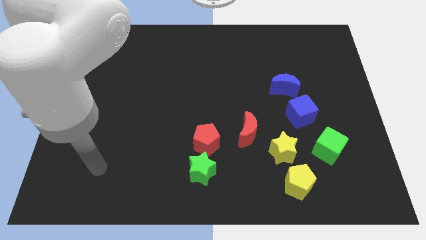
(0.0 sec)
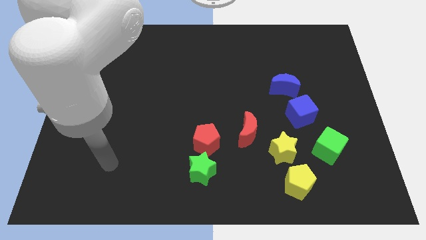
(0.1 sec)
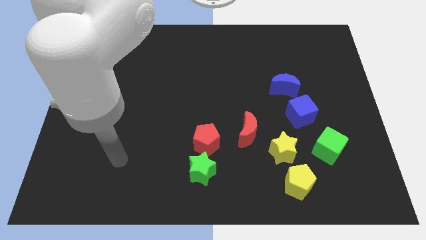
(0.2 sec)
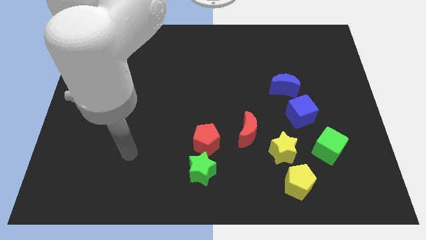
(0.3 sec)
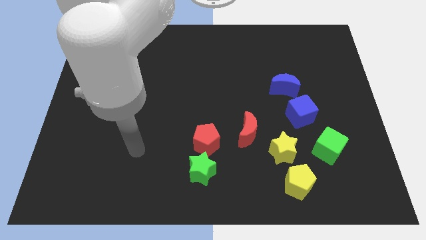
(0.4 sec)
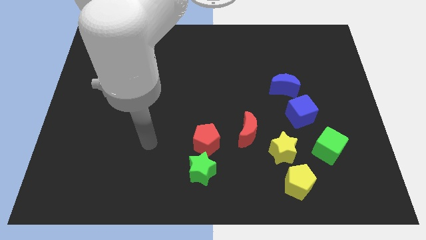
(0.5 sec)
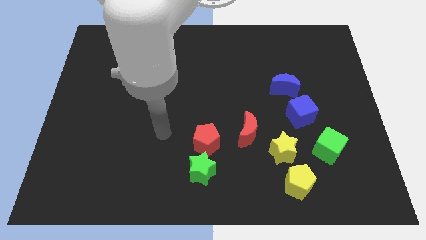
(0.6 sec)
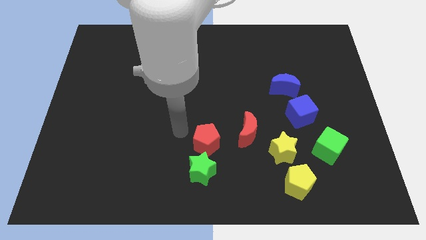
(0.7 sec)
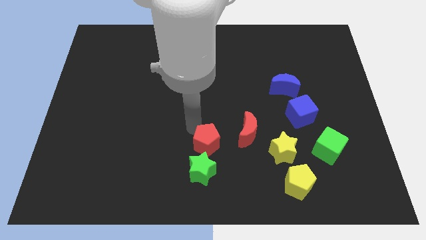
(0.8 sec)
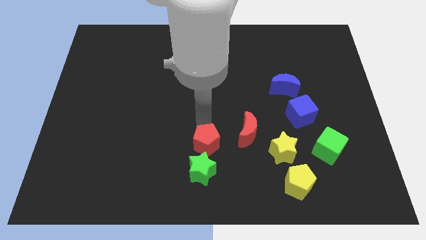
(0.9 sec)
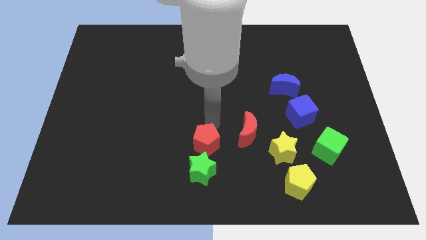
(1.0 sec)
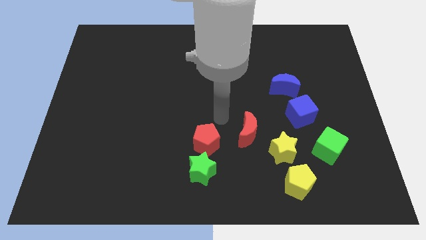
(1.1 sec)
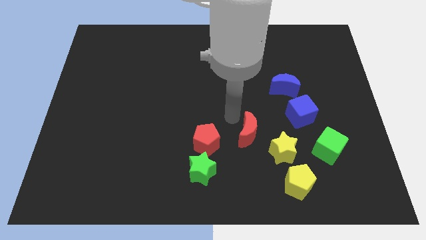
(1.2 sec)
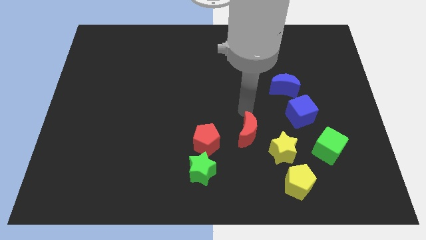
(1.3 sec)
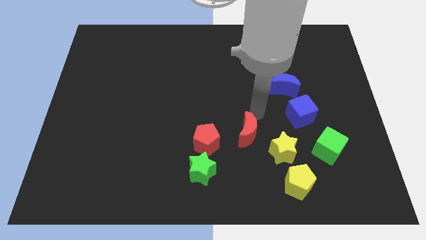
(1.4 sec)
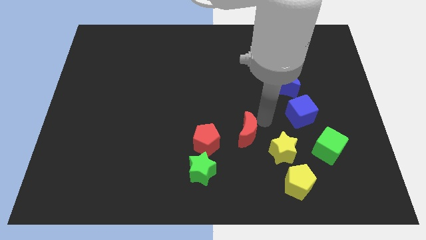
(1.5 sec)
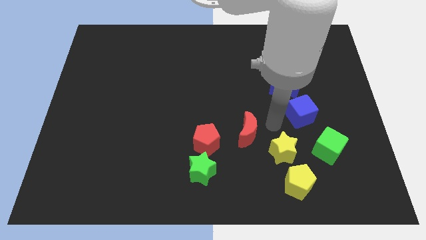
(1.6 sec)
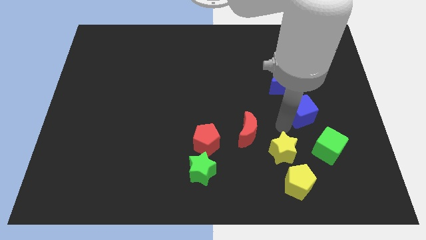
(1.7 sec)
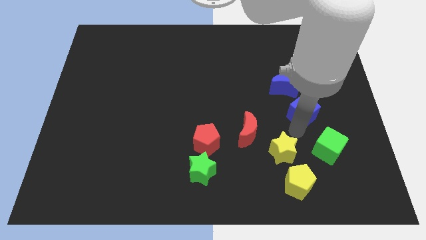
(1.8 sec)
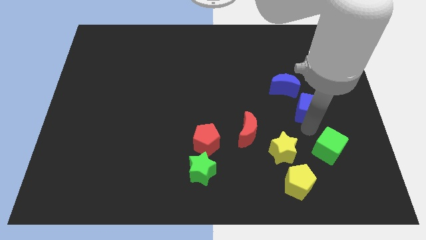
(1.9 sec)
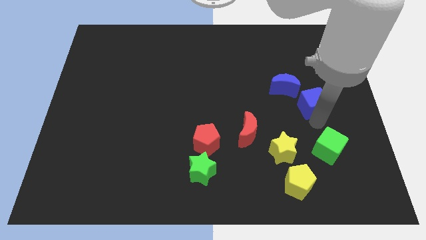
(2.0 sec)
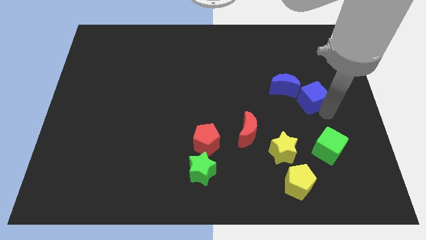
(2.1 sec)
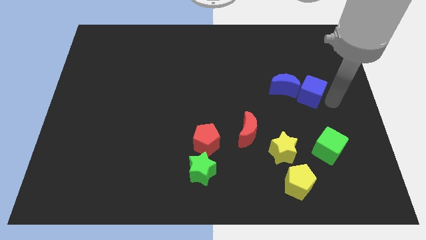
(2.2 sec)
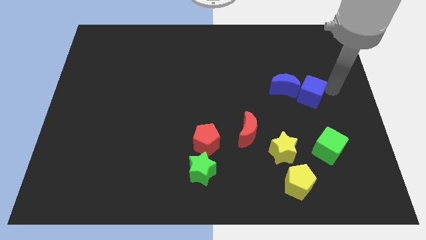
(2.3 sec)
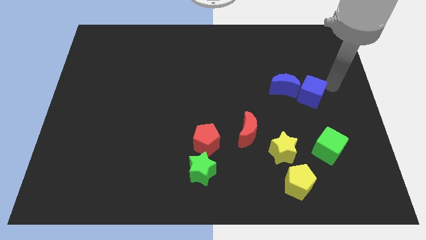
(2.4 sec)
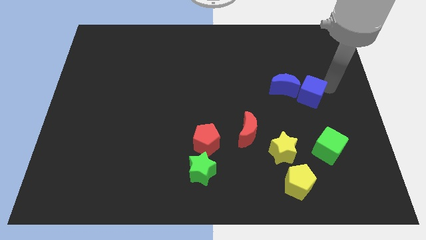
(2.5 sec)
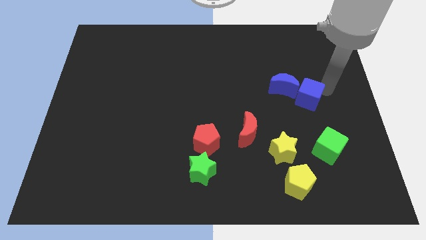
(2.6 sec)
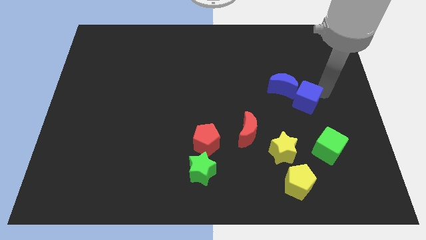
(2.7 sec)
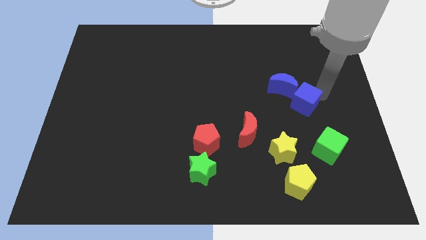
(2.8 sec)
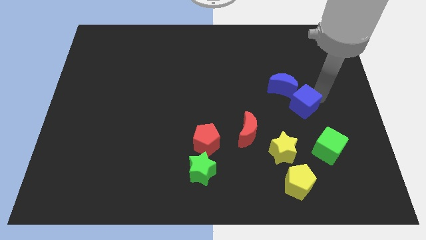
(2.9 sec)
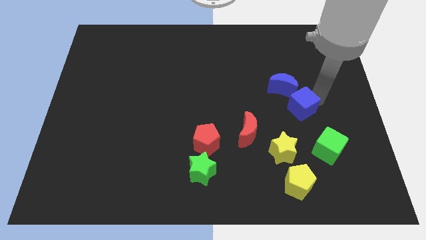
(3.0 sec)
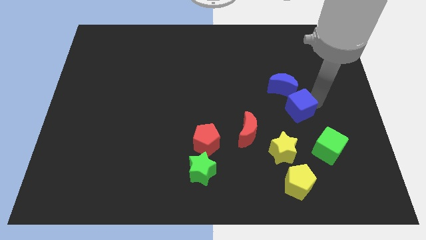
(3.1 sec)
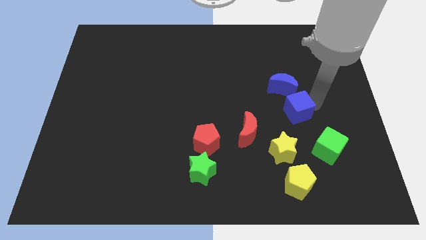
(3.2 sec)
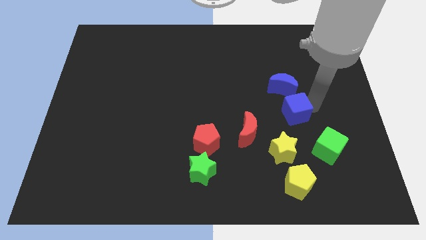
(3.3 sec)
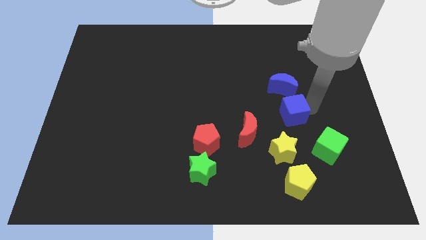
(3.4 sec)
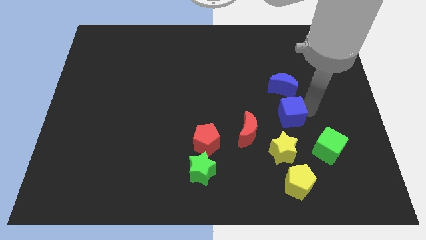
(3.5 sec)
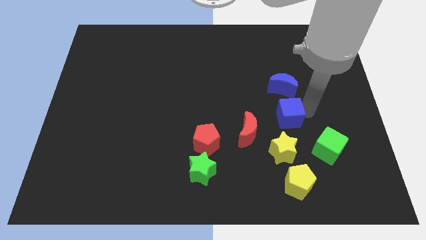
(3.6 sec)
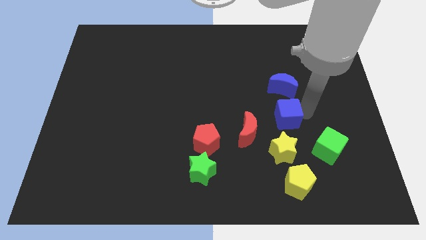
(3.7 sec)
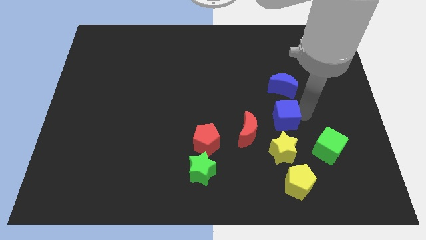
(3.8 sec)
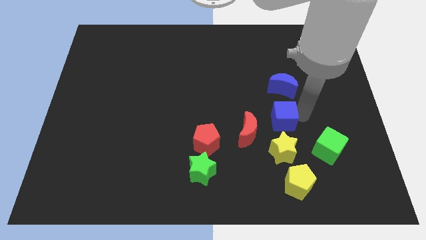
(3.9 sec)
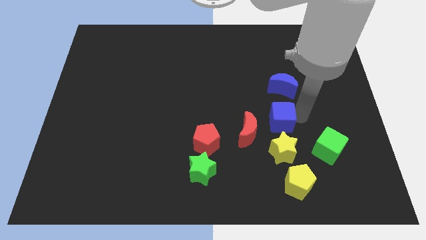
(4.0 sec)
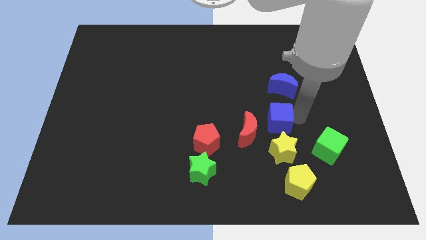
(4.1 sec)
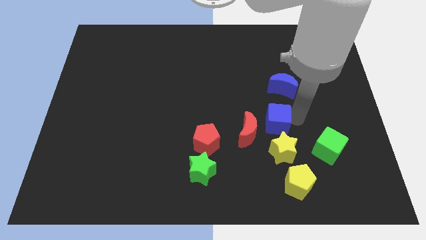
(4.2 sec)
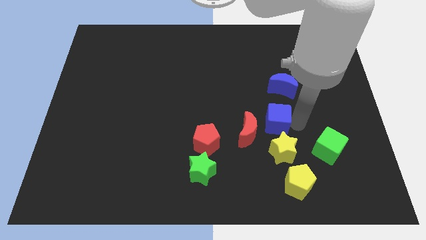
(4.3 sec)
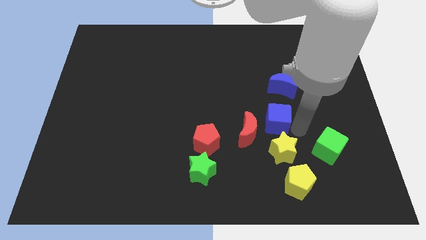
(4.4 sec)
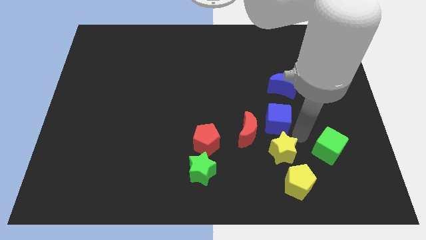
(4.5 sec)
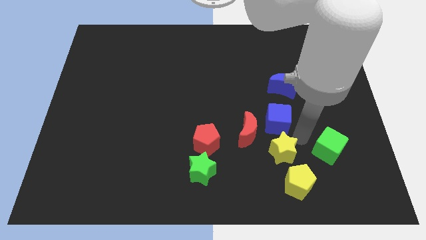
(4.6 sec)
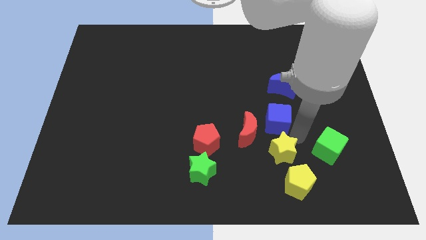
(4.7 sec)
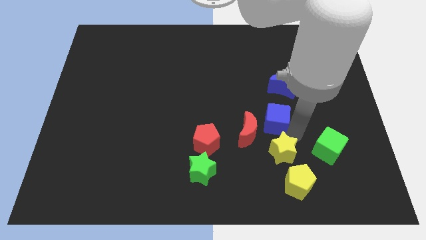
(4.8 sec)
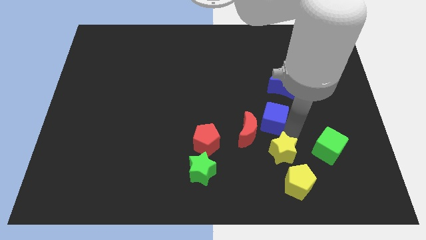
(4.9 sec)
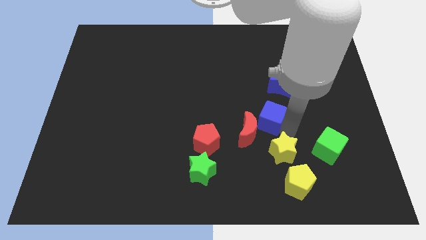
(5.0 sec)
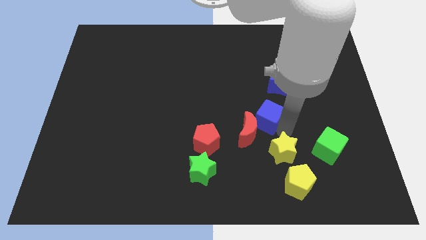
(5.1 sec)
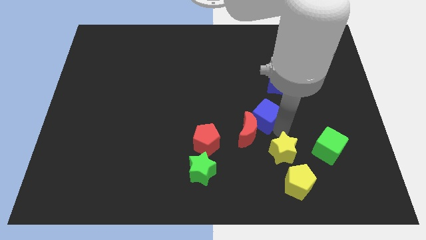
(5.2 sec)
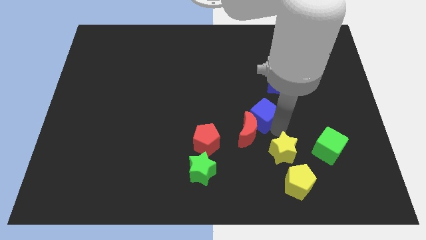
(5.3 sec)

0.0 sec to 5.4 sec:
slide the blue cube to the center of the board

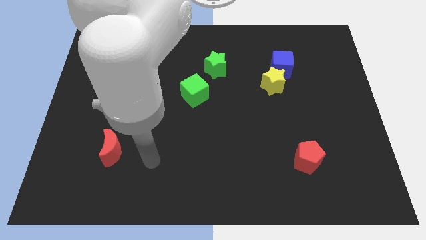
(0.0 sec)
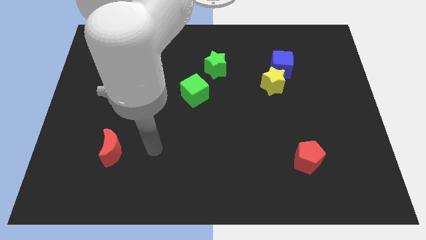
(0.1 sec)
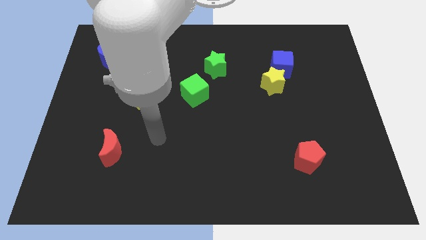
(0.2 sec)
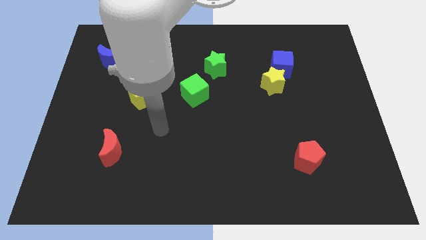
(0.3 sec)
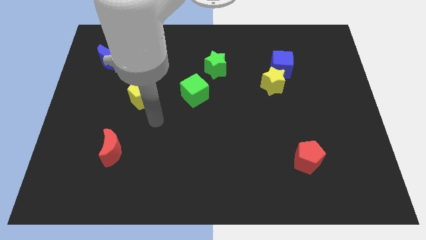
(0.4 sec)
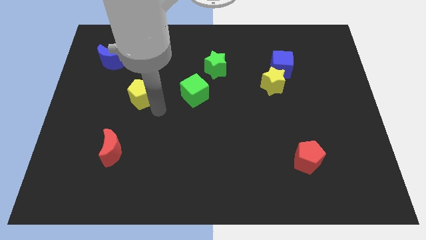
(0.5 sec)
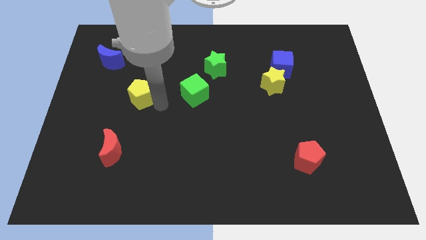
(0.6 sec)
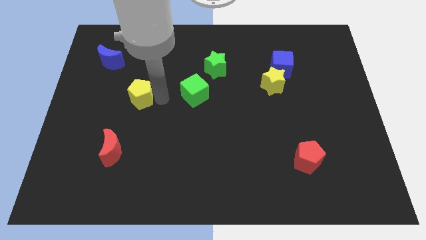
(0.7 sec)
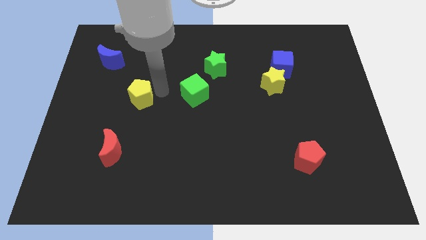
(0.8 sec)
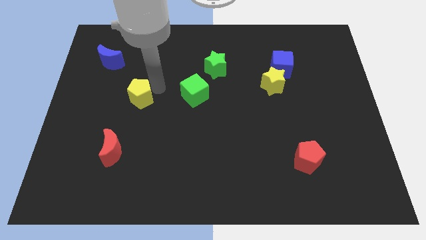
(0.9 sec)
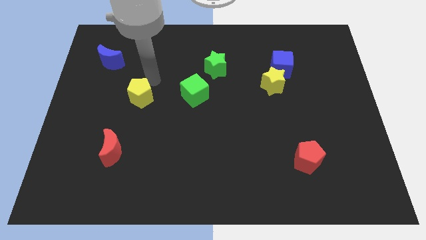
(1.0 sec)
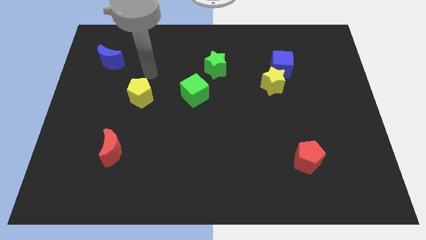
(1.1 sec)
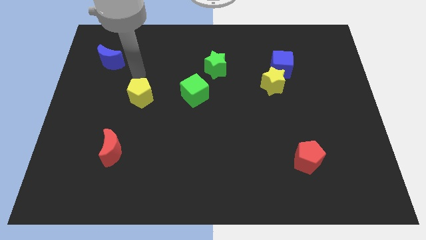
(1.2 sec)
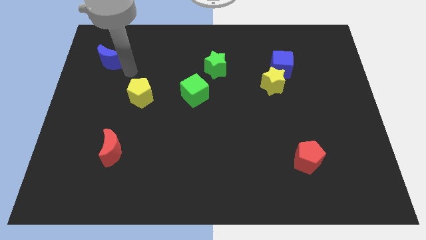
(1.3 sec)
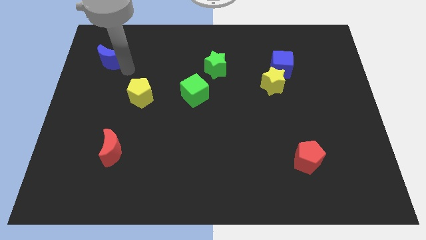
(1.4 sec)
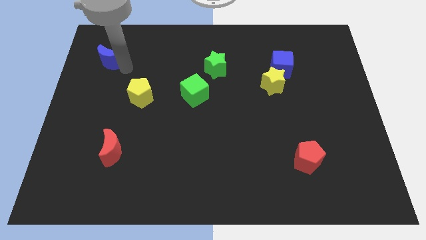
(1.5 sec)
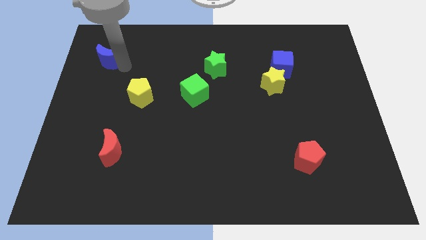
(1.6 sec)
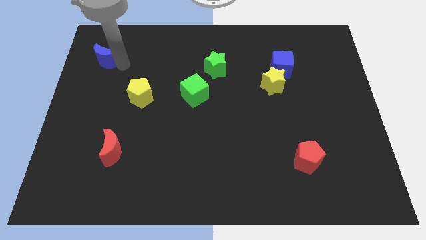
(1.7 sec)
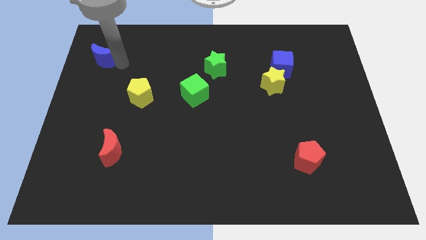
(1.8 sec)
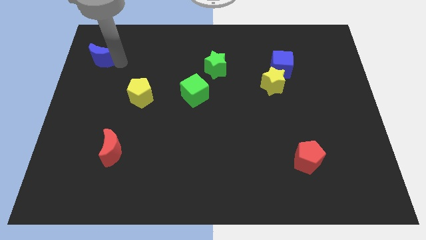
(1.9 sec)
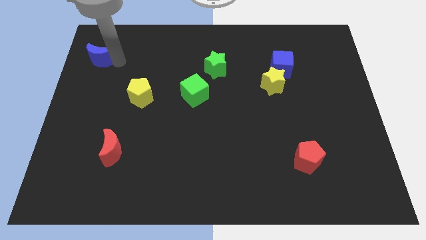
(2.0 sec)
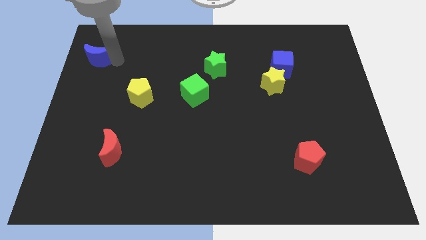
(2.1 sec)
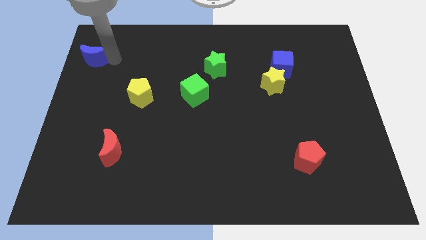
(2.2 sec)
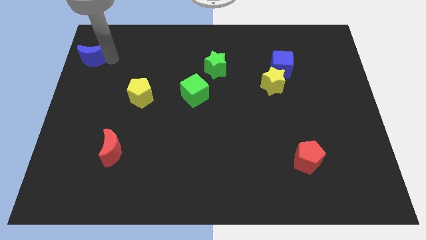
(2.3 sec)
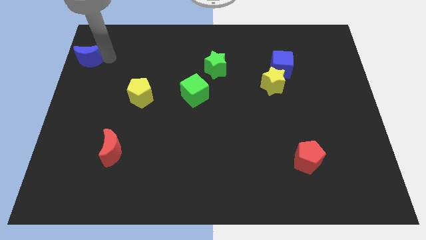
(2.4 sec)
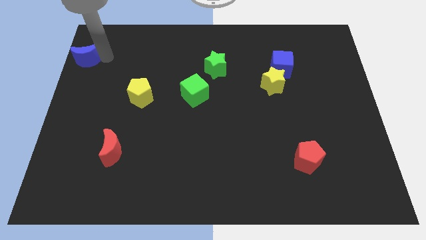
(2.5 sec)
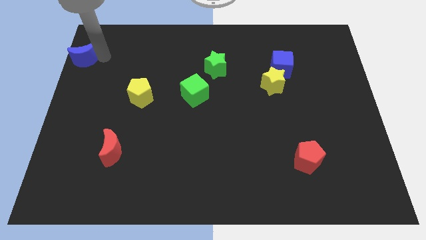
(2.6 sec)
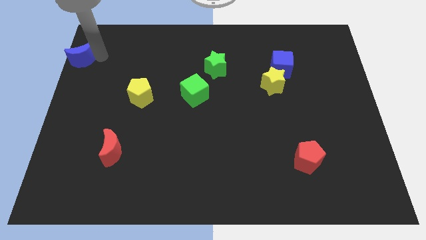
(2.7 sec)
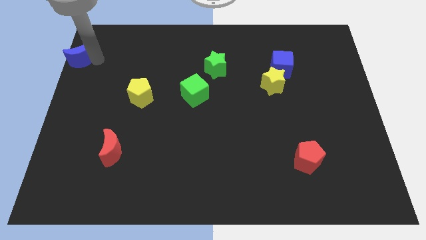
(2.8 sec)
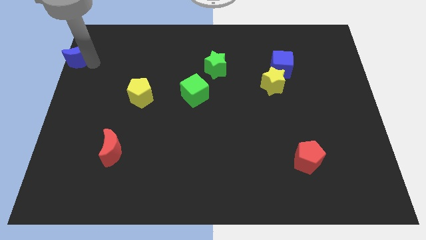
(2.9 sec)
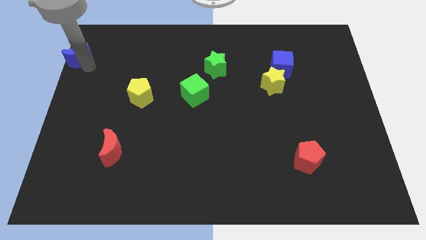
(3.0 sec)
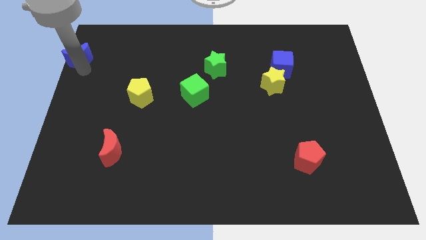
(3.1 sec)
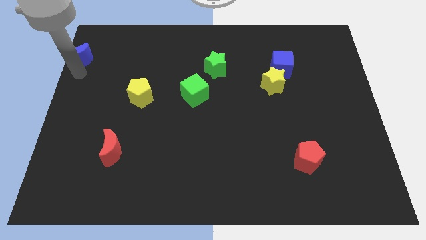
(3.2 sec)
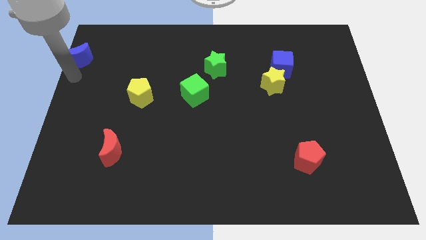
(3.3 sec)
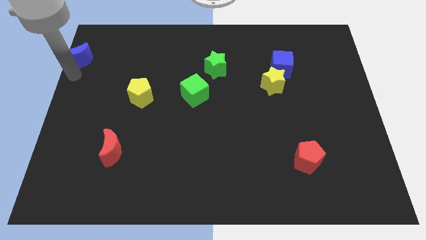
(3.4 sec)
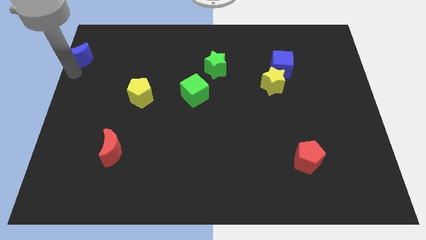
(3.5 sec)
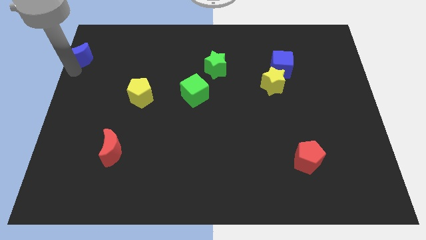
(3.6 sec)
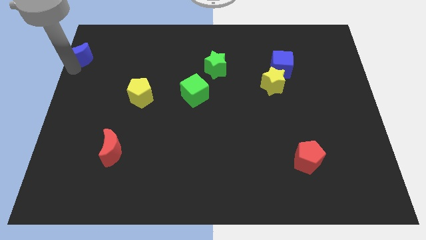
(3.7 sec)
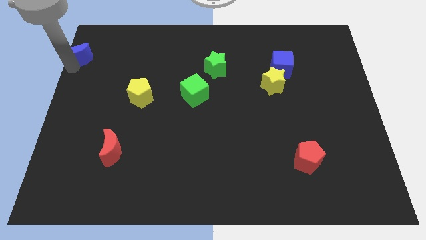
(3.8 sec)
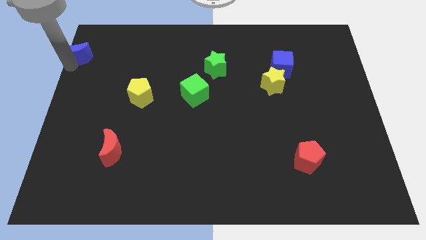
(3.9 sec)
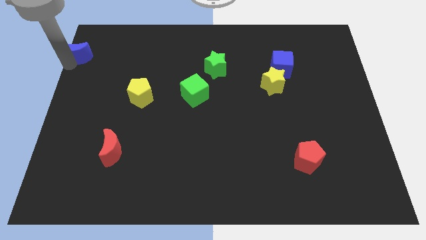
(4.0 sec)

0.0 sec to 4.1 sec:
push the blue moon to the top left
